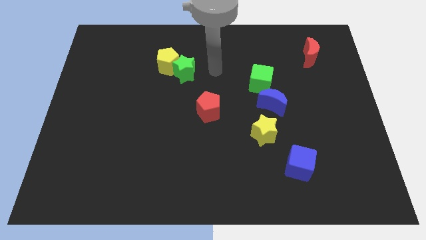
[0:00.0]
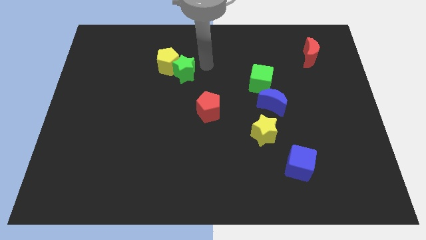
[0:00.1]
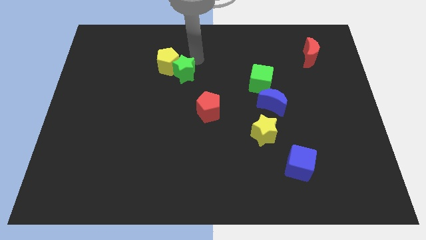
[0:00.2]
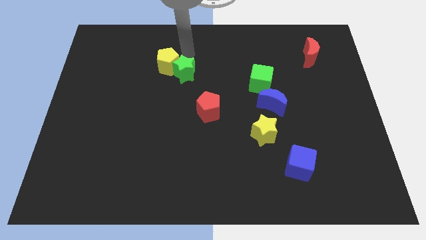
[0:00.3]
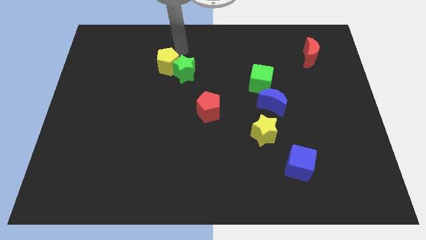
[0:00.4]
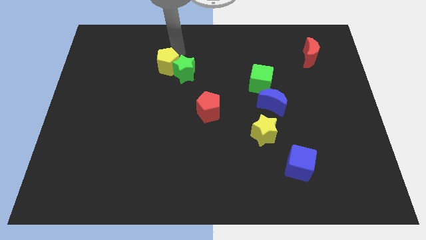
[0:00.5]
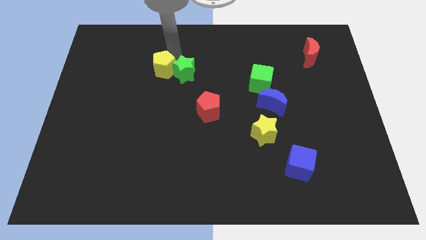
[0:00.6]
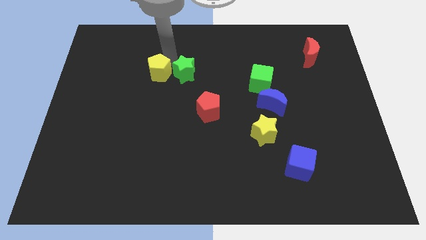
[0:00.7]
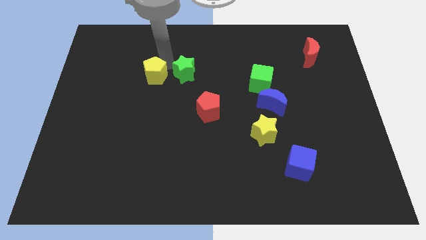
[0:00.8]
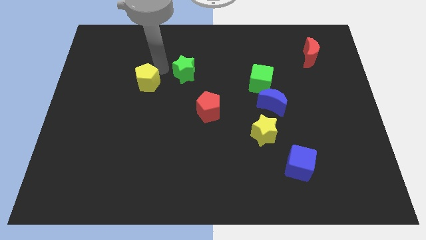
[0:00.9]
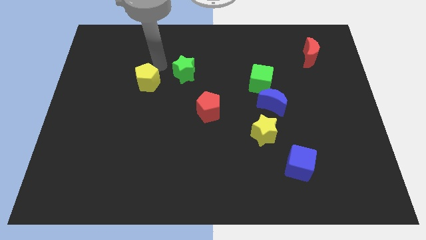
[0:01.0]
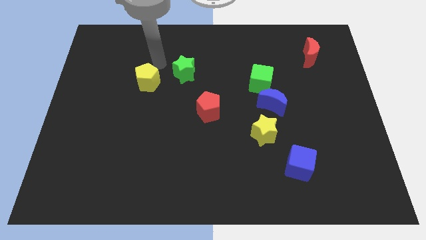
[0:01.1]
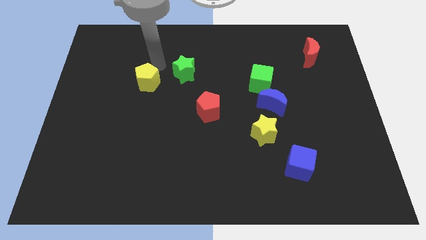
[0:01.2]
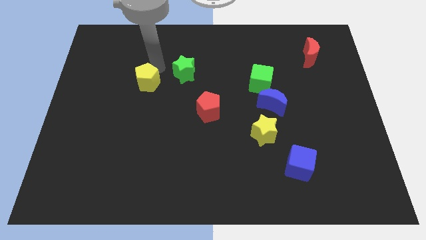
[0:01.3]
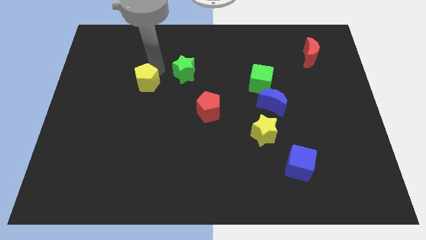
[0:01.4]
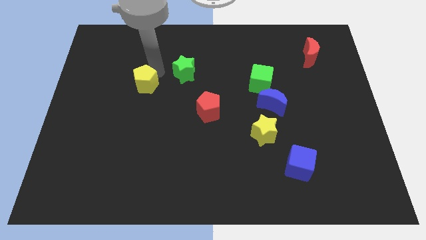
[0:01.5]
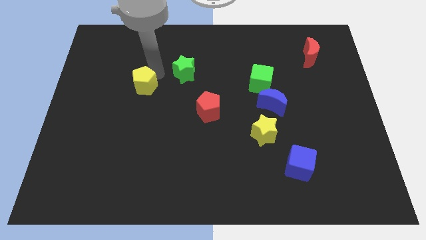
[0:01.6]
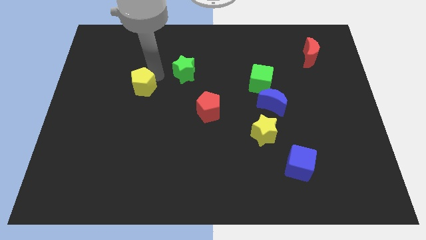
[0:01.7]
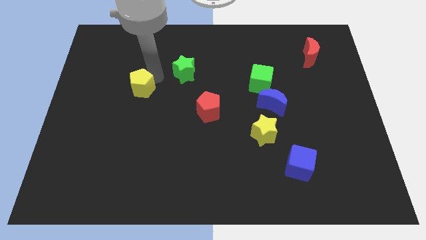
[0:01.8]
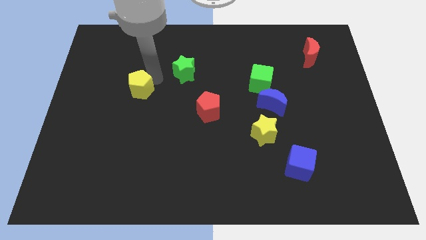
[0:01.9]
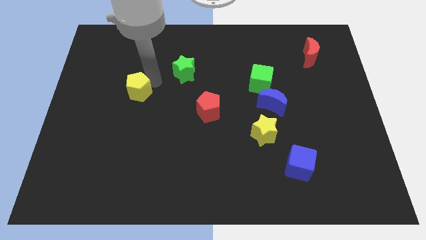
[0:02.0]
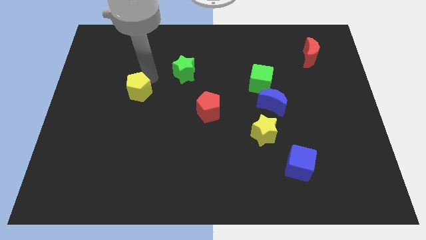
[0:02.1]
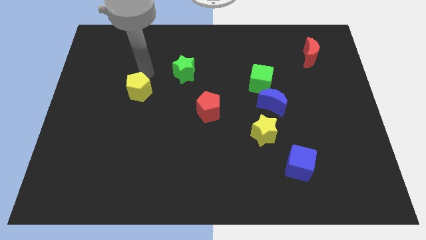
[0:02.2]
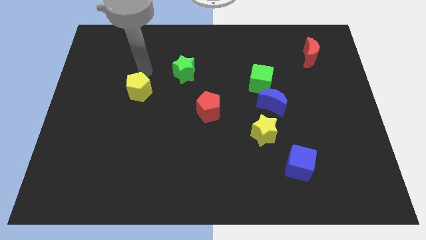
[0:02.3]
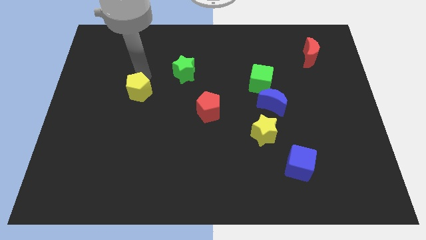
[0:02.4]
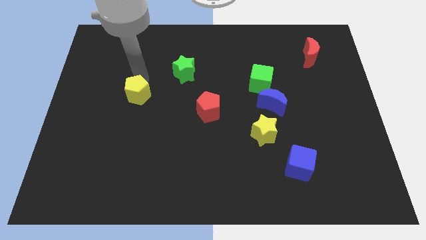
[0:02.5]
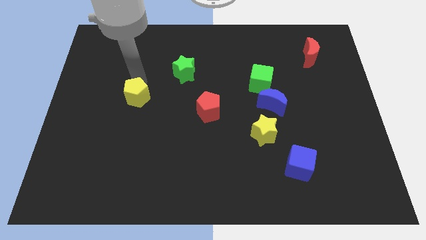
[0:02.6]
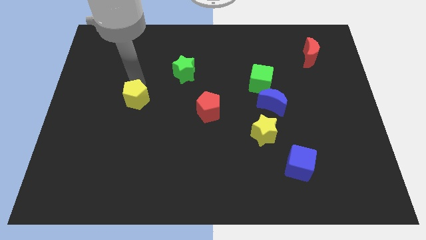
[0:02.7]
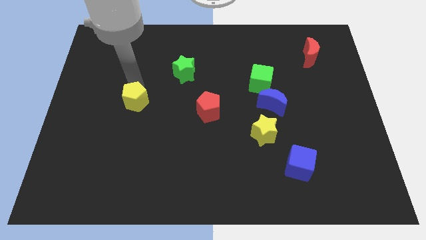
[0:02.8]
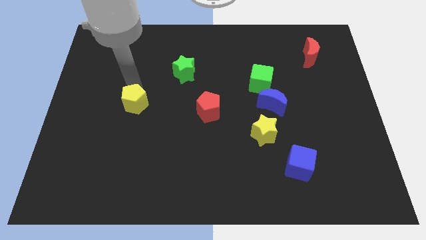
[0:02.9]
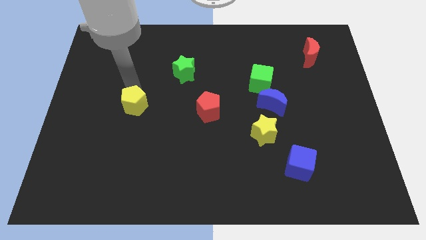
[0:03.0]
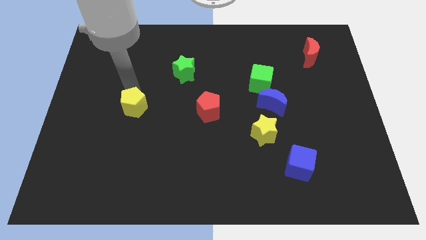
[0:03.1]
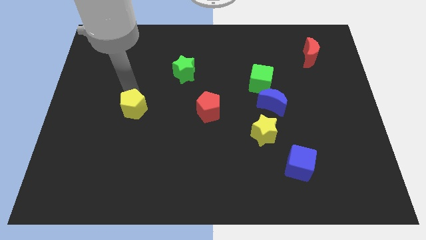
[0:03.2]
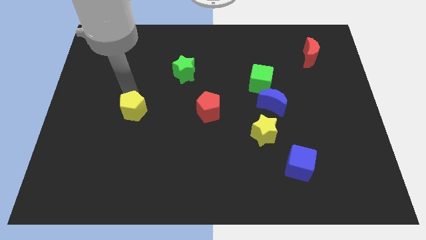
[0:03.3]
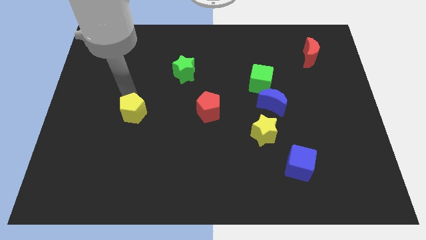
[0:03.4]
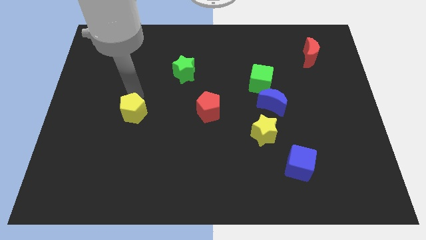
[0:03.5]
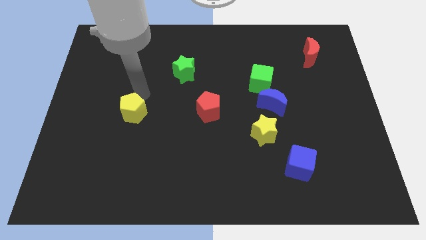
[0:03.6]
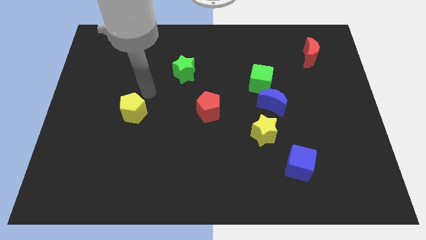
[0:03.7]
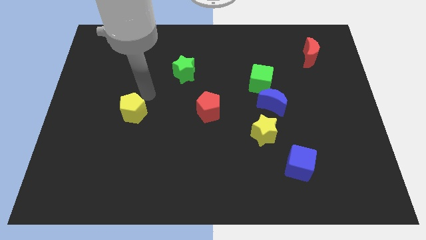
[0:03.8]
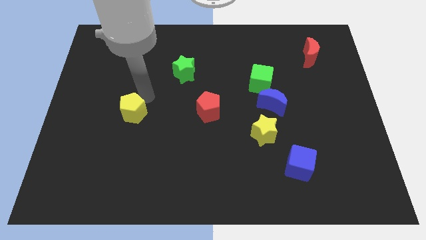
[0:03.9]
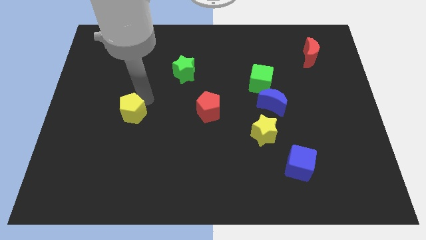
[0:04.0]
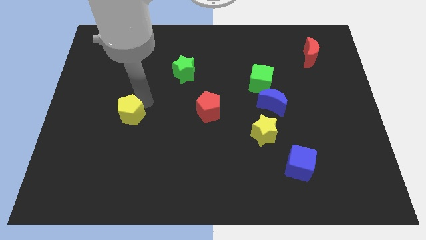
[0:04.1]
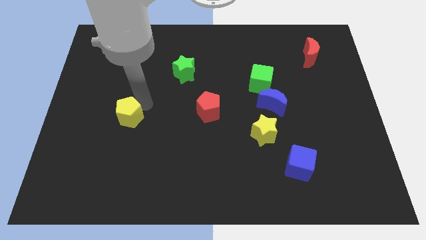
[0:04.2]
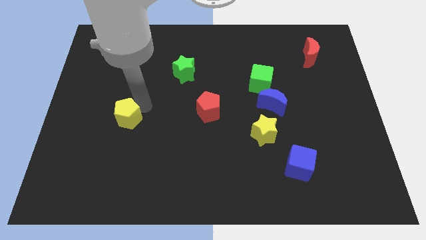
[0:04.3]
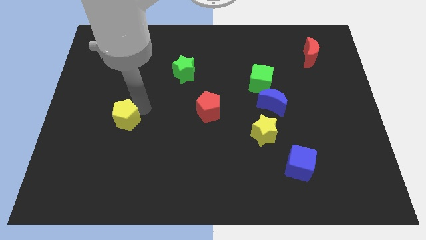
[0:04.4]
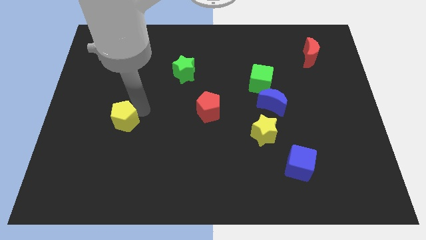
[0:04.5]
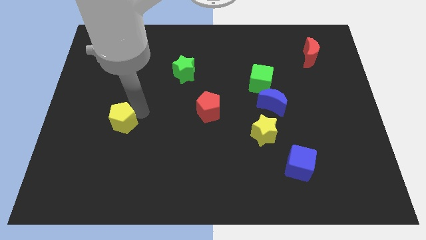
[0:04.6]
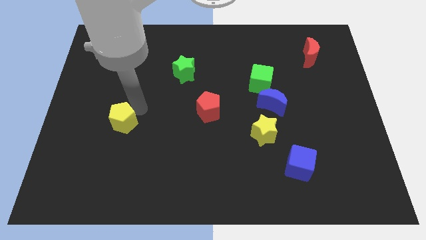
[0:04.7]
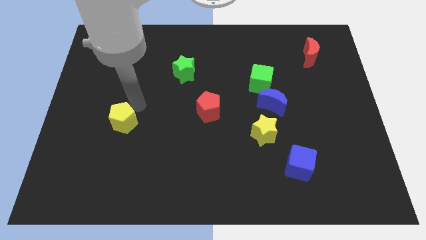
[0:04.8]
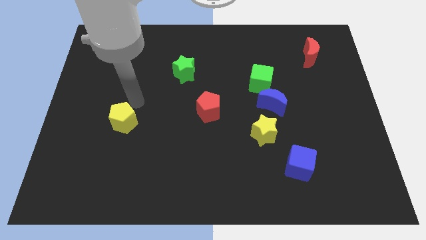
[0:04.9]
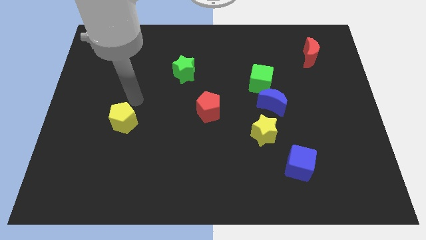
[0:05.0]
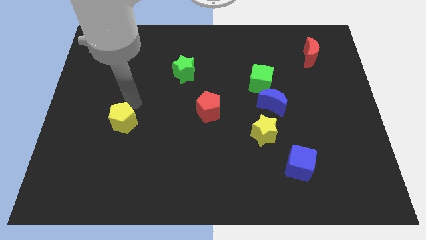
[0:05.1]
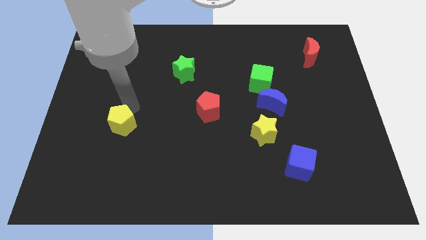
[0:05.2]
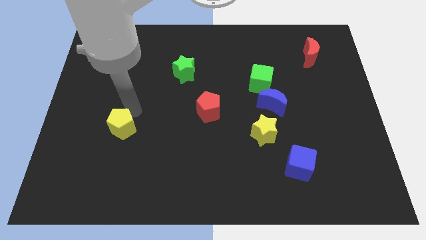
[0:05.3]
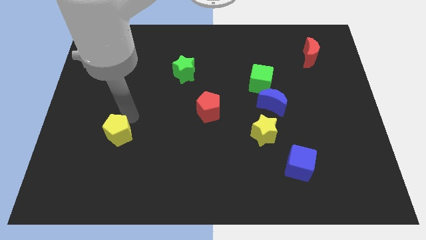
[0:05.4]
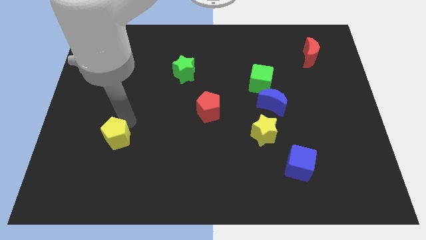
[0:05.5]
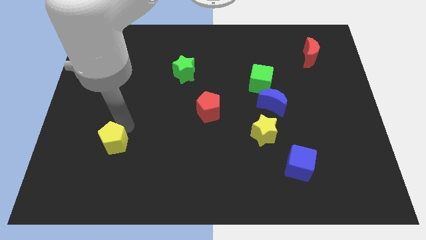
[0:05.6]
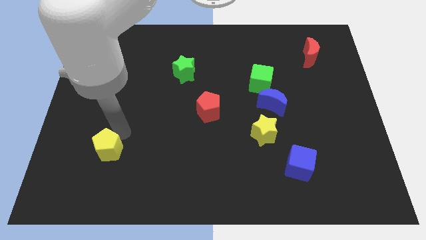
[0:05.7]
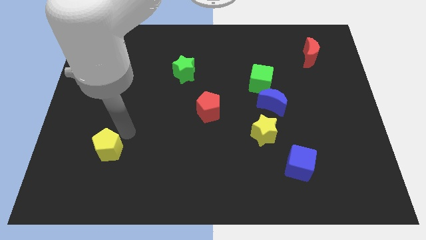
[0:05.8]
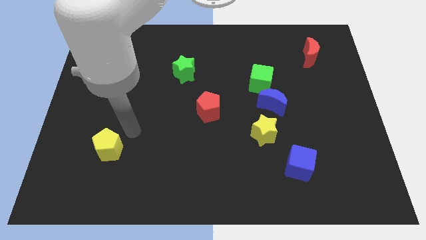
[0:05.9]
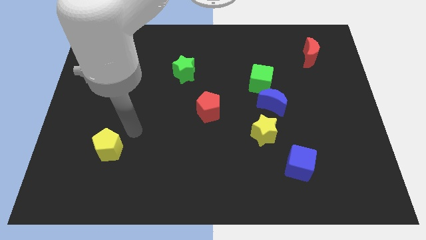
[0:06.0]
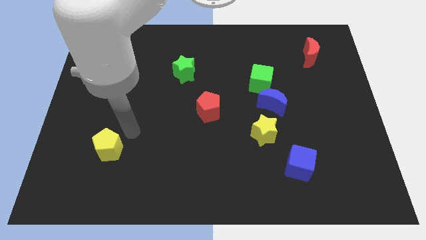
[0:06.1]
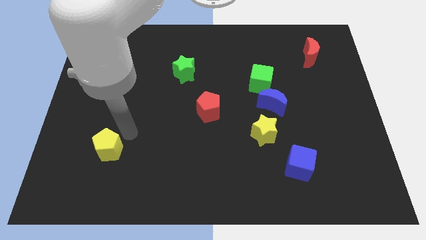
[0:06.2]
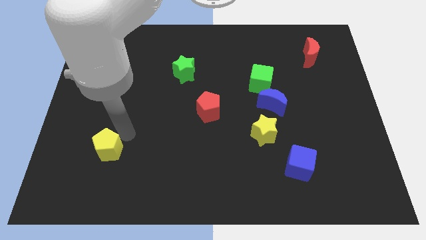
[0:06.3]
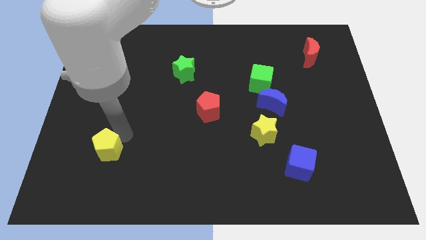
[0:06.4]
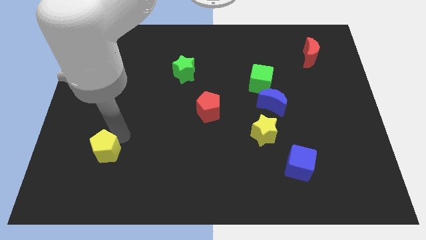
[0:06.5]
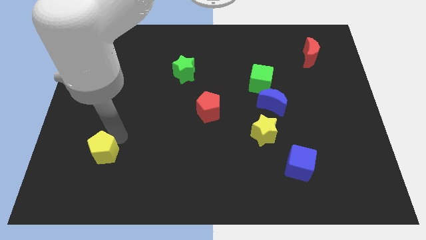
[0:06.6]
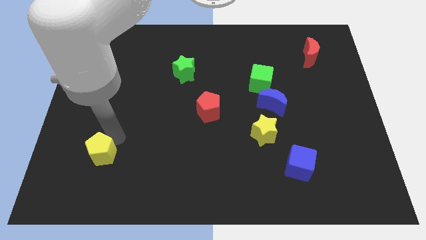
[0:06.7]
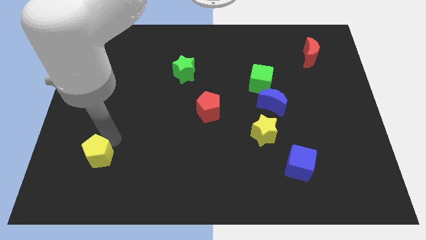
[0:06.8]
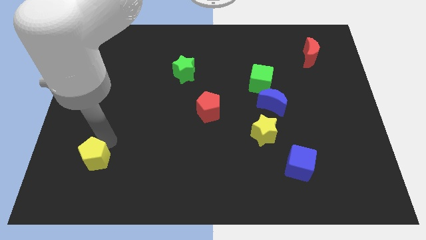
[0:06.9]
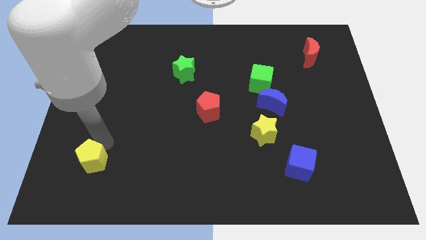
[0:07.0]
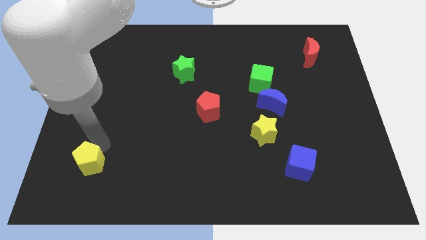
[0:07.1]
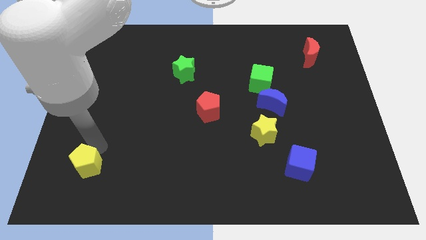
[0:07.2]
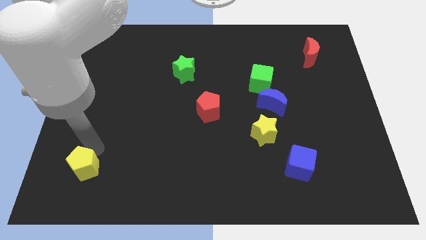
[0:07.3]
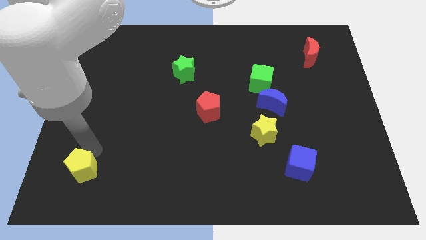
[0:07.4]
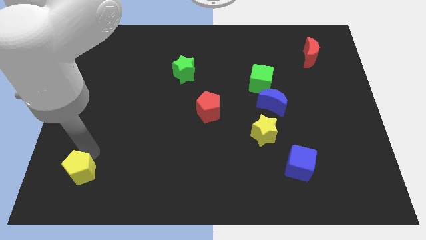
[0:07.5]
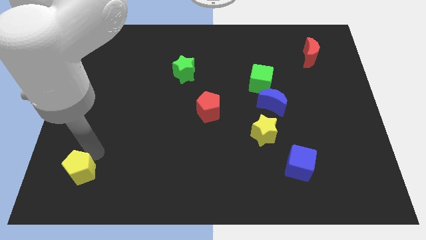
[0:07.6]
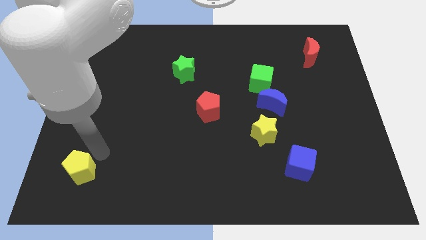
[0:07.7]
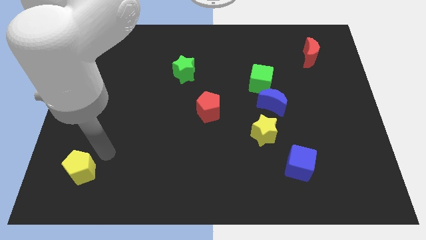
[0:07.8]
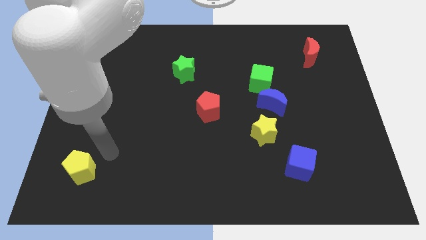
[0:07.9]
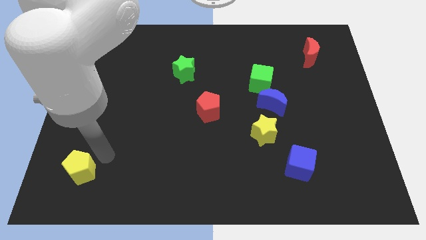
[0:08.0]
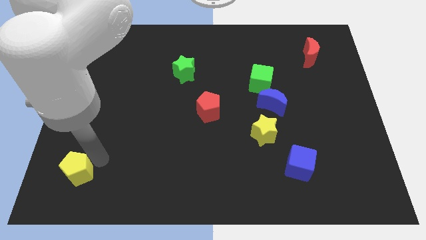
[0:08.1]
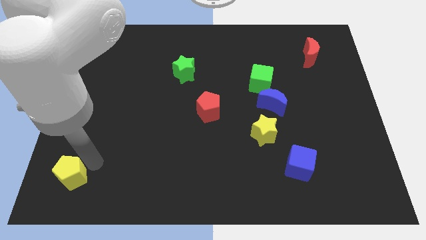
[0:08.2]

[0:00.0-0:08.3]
slide the yellow pentagon to the lower left corner
